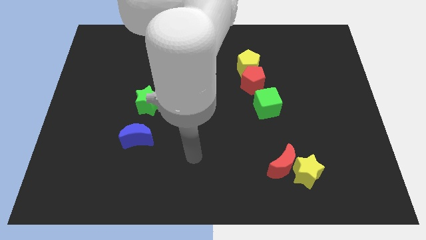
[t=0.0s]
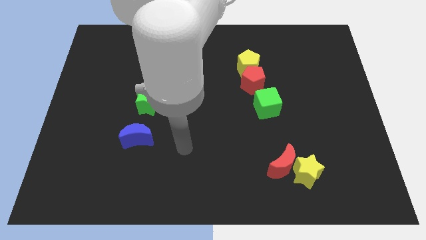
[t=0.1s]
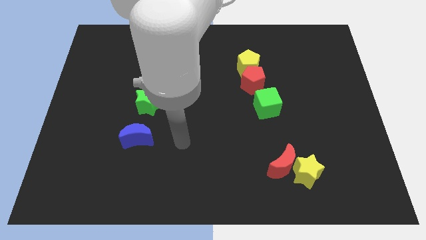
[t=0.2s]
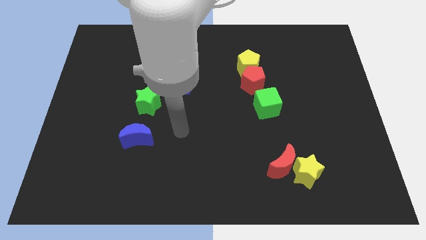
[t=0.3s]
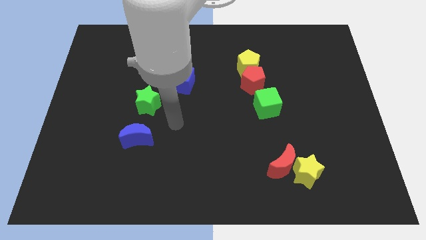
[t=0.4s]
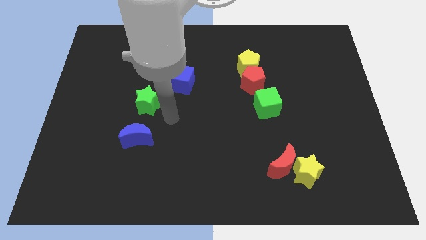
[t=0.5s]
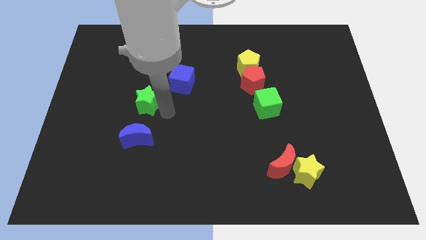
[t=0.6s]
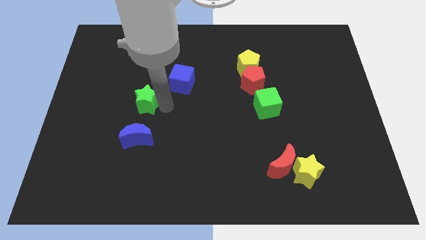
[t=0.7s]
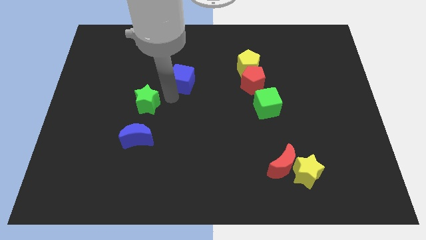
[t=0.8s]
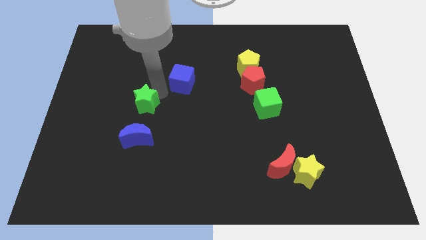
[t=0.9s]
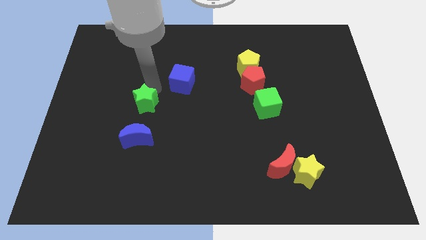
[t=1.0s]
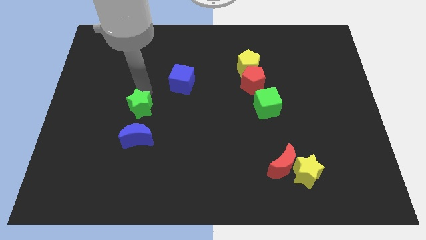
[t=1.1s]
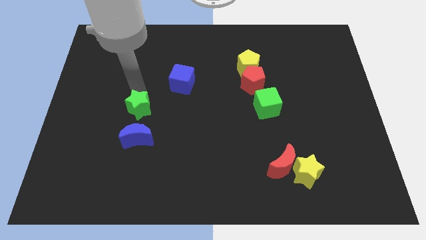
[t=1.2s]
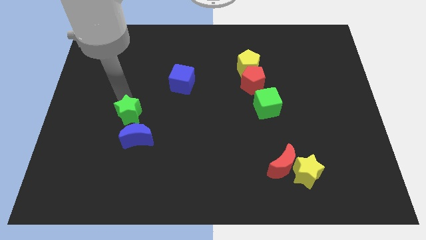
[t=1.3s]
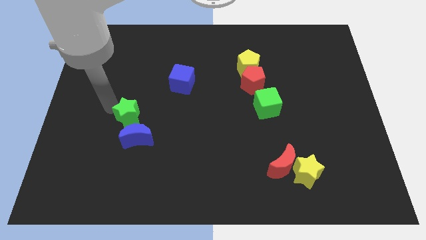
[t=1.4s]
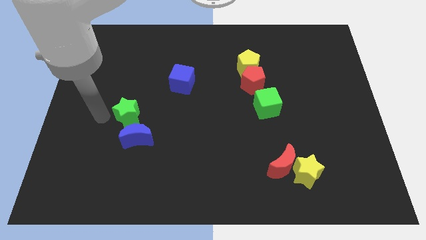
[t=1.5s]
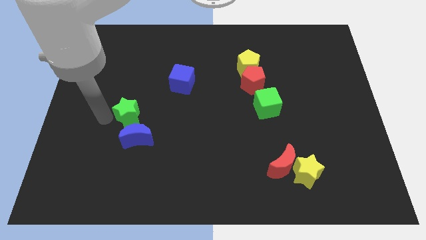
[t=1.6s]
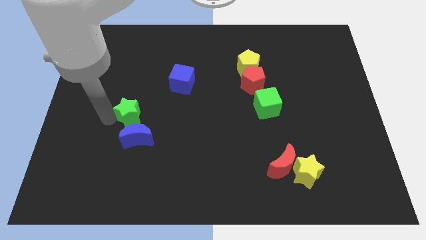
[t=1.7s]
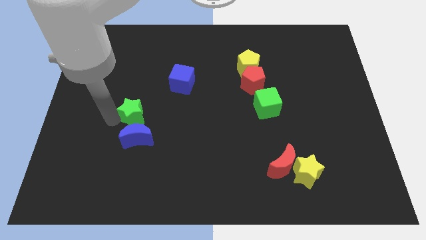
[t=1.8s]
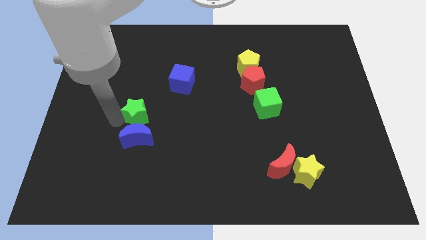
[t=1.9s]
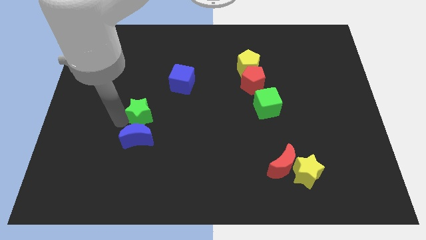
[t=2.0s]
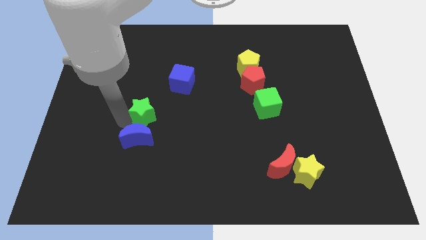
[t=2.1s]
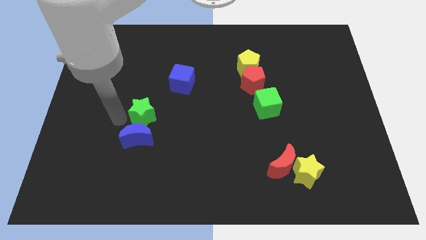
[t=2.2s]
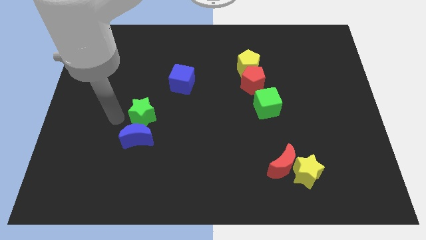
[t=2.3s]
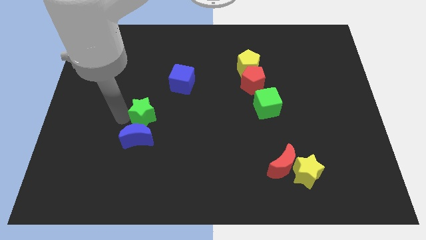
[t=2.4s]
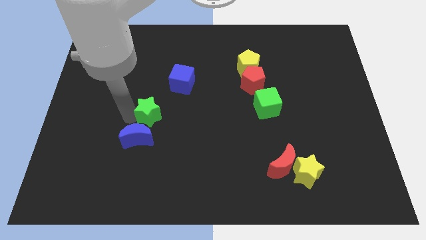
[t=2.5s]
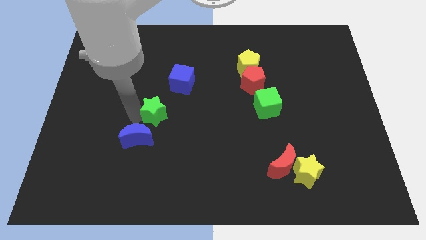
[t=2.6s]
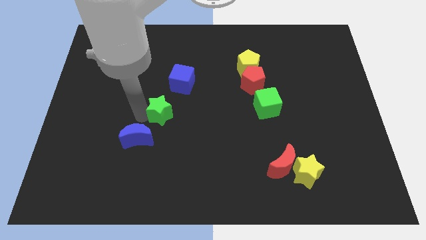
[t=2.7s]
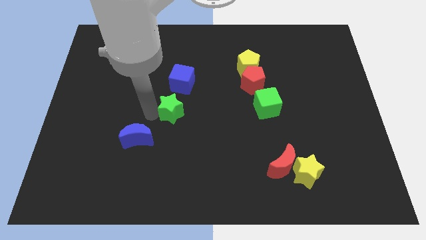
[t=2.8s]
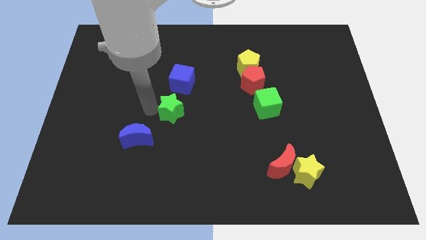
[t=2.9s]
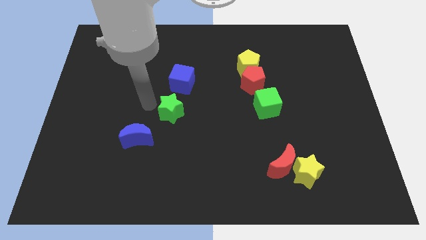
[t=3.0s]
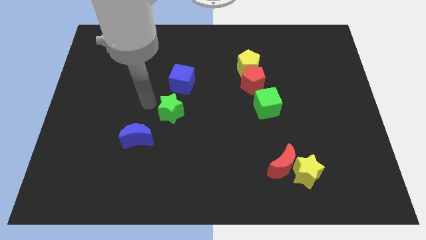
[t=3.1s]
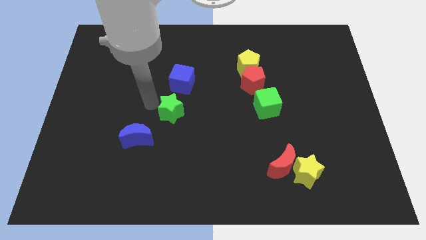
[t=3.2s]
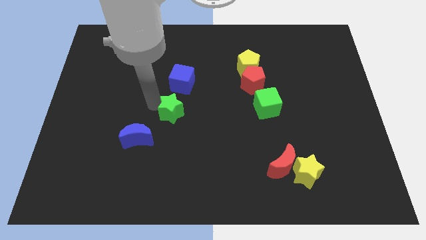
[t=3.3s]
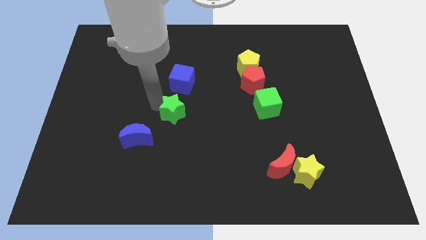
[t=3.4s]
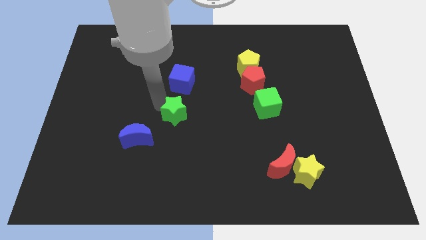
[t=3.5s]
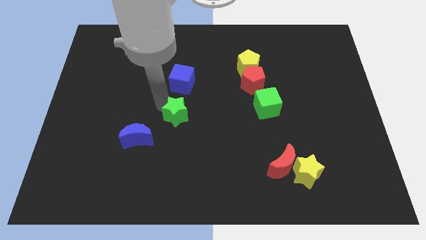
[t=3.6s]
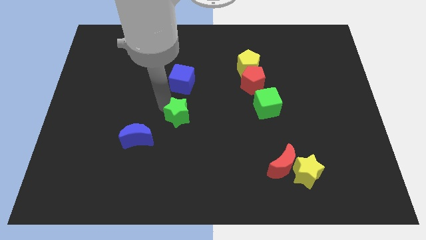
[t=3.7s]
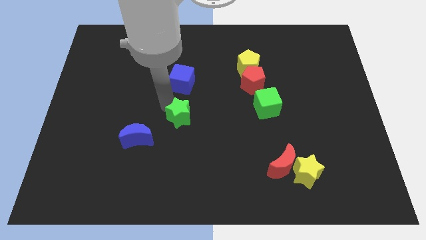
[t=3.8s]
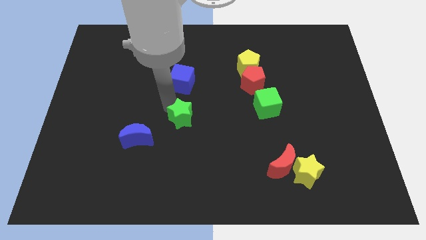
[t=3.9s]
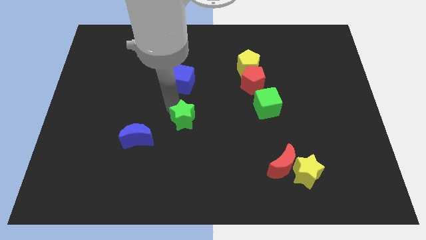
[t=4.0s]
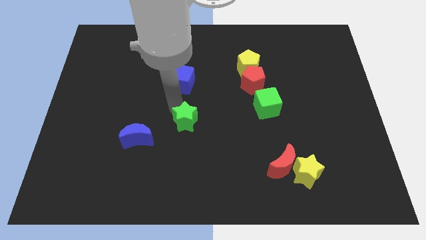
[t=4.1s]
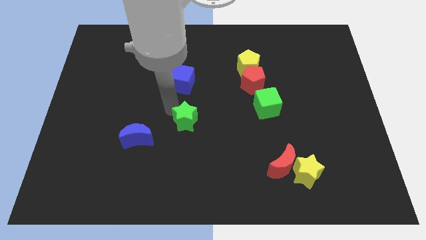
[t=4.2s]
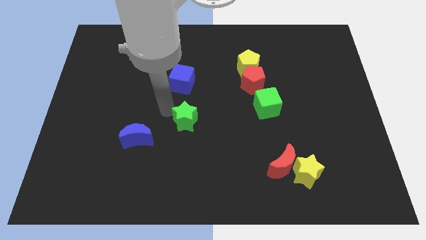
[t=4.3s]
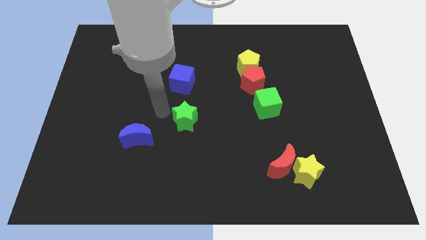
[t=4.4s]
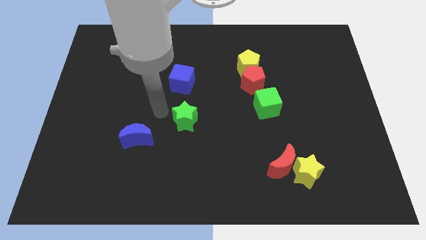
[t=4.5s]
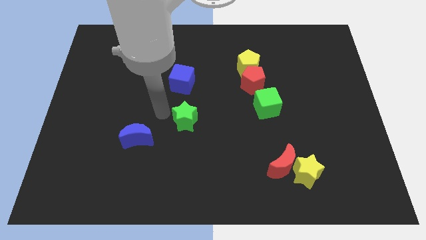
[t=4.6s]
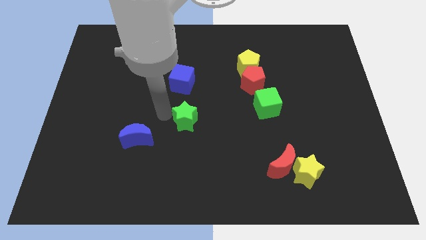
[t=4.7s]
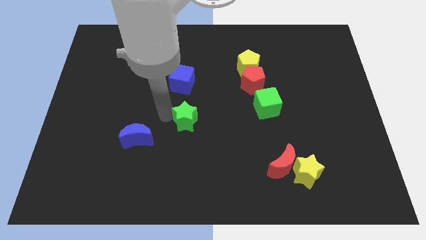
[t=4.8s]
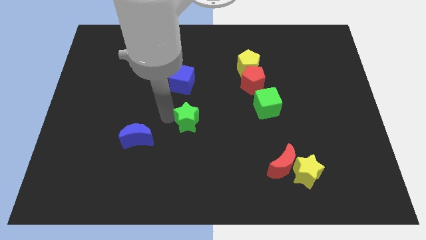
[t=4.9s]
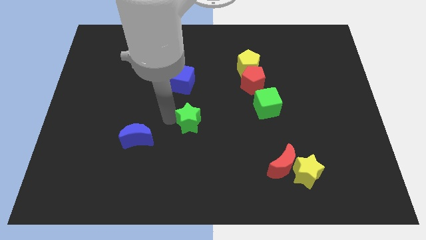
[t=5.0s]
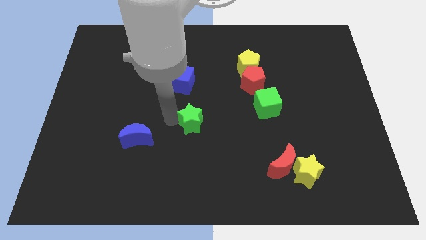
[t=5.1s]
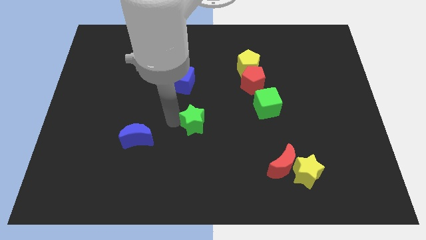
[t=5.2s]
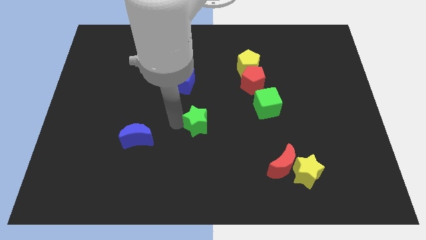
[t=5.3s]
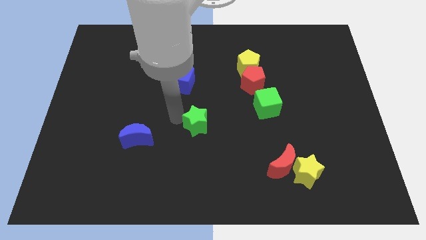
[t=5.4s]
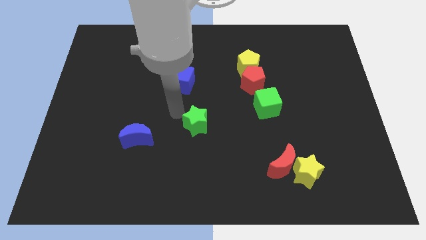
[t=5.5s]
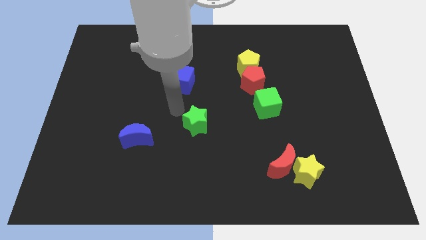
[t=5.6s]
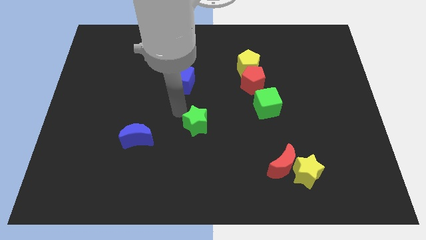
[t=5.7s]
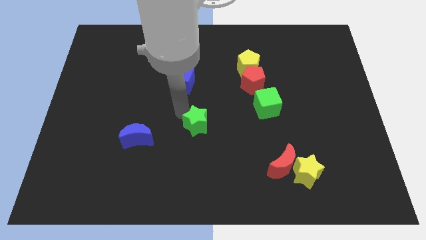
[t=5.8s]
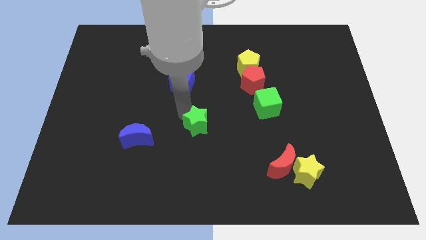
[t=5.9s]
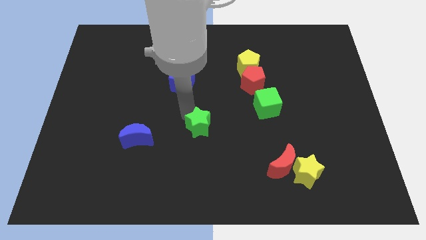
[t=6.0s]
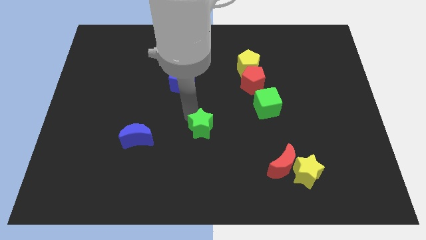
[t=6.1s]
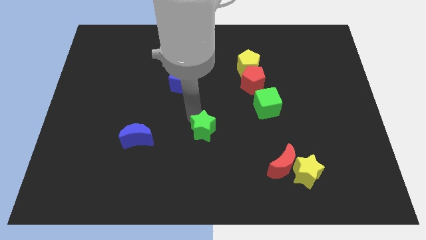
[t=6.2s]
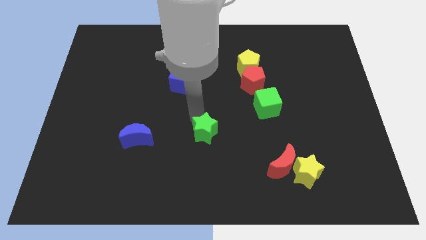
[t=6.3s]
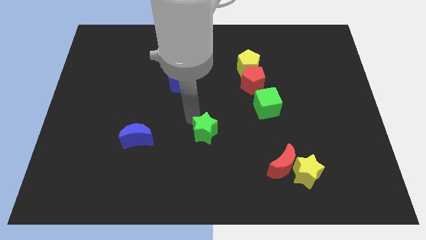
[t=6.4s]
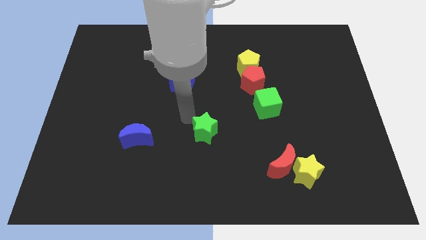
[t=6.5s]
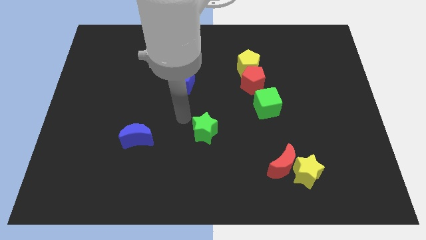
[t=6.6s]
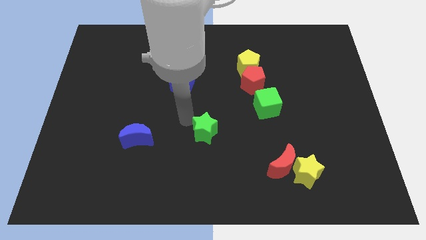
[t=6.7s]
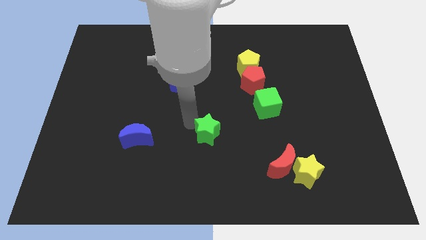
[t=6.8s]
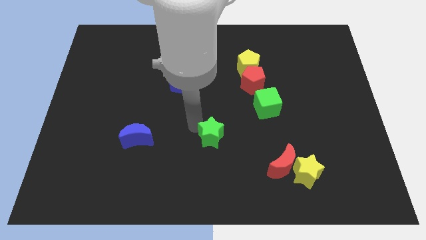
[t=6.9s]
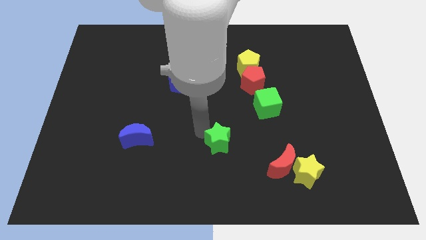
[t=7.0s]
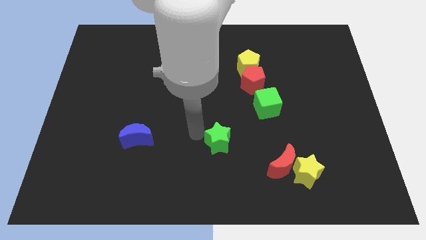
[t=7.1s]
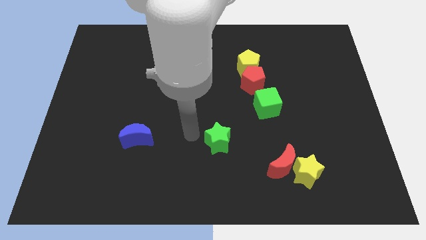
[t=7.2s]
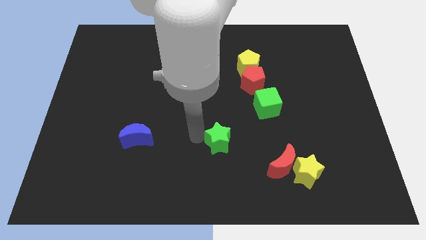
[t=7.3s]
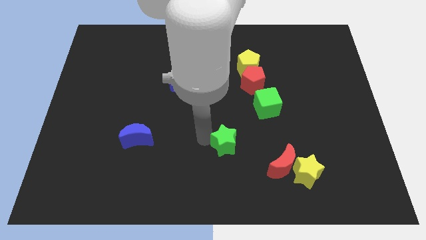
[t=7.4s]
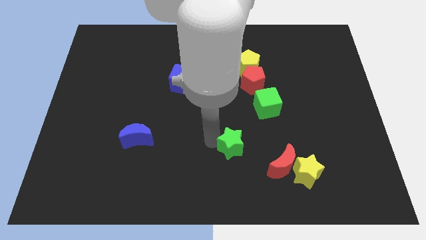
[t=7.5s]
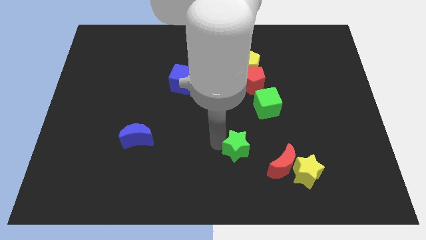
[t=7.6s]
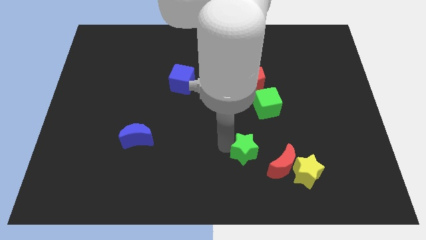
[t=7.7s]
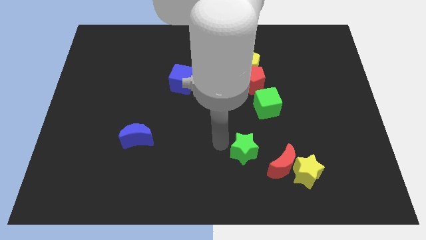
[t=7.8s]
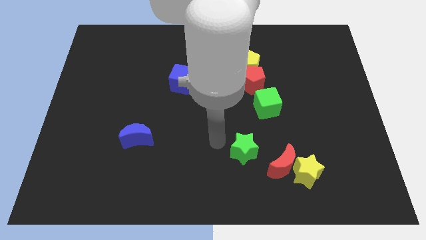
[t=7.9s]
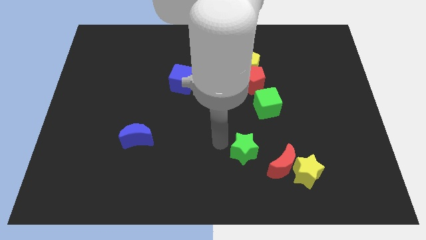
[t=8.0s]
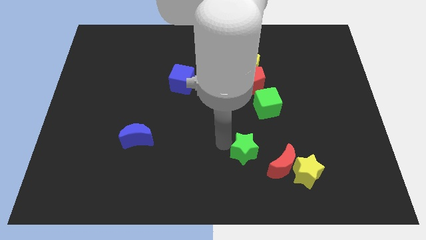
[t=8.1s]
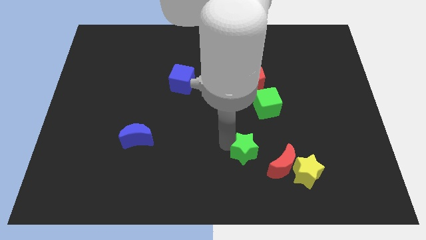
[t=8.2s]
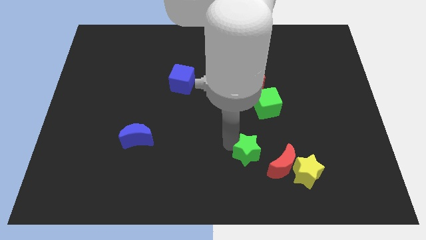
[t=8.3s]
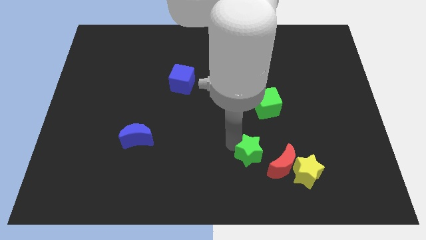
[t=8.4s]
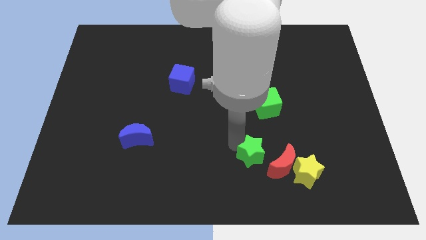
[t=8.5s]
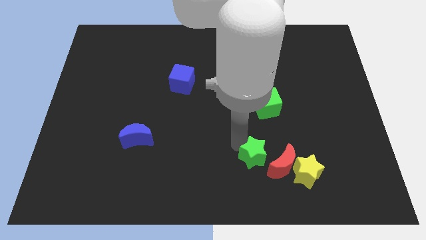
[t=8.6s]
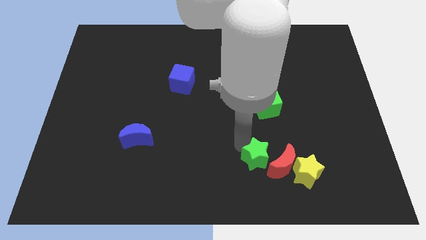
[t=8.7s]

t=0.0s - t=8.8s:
put the green star close to the red moon
